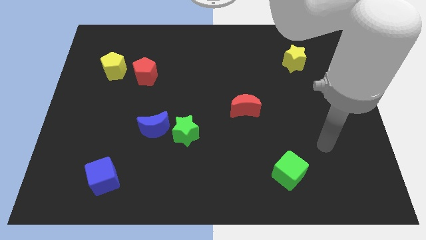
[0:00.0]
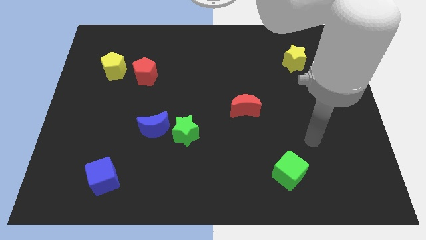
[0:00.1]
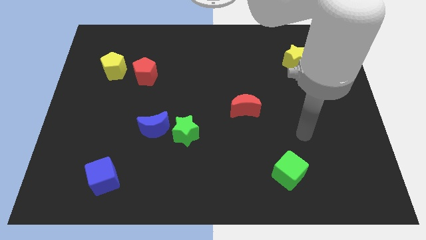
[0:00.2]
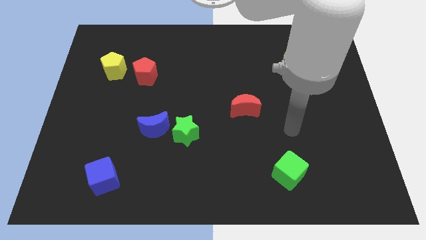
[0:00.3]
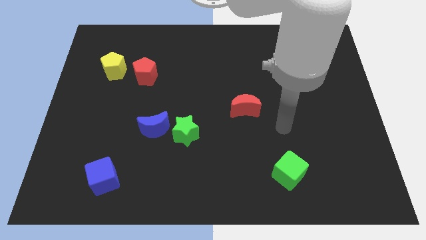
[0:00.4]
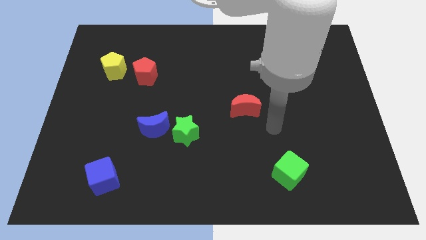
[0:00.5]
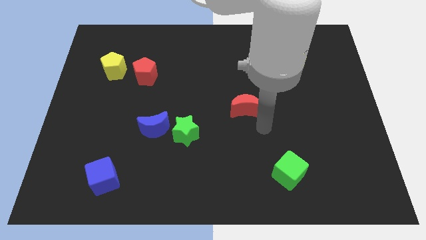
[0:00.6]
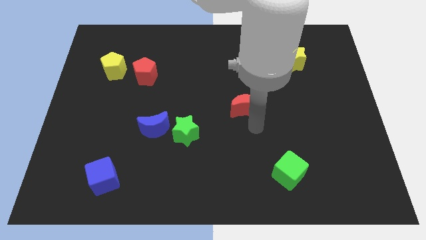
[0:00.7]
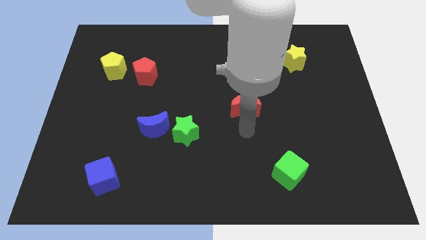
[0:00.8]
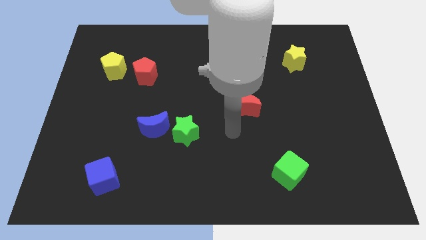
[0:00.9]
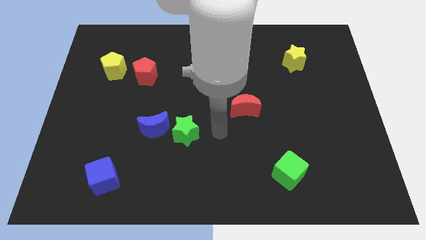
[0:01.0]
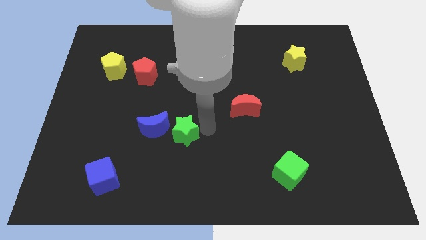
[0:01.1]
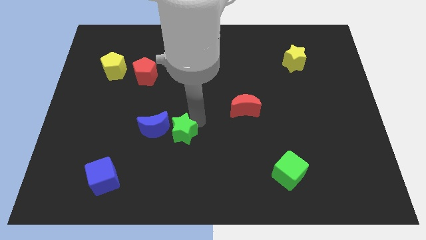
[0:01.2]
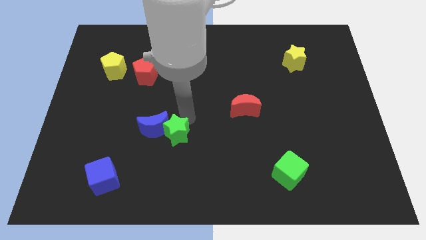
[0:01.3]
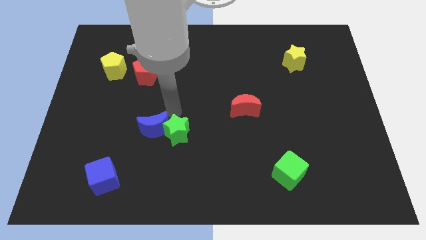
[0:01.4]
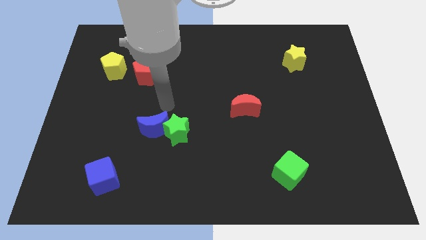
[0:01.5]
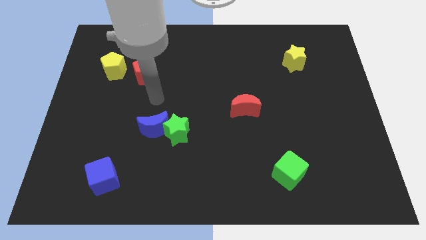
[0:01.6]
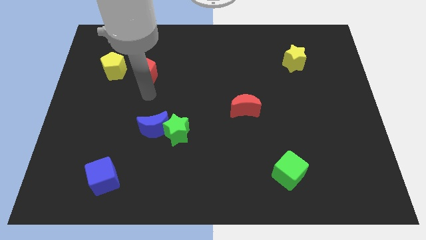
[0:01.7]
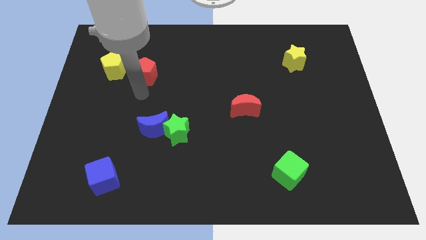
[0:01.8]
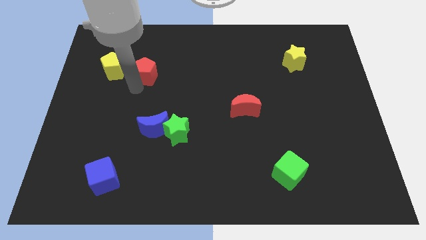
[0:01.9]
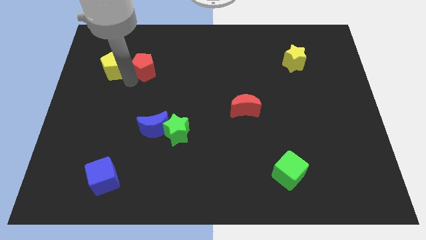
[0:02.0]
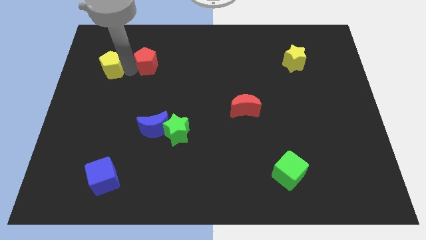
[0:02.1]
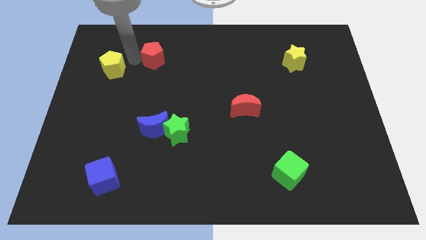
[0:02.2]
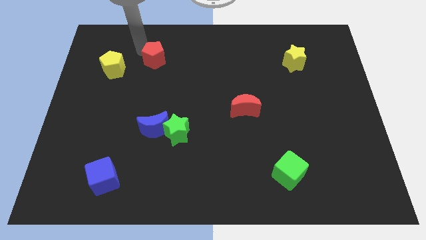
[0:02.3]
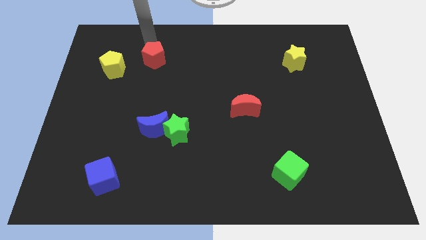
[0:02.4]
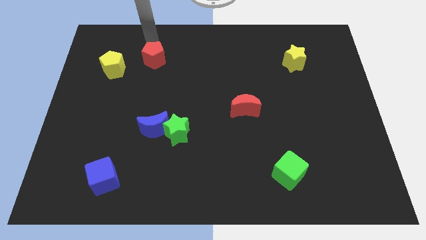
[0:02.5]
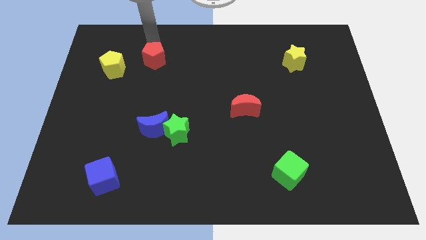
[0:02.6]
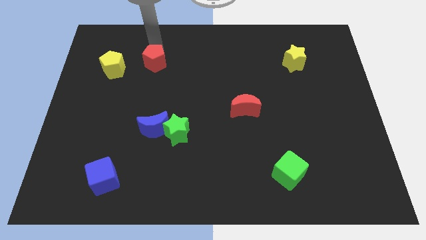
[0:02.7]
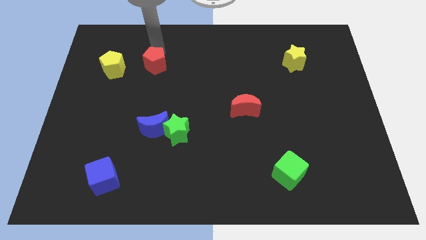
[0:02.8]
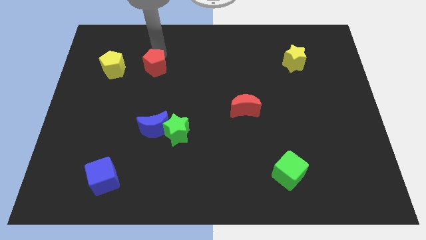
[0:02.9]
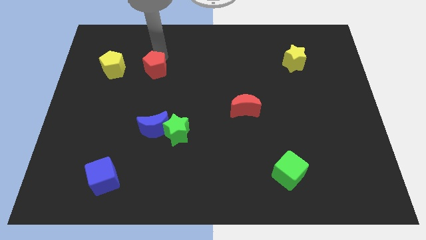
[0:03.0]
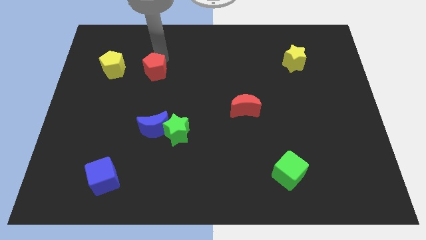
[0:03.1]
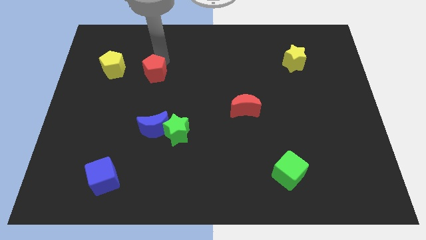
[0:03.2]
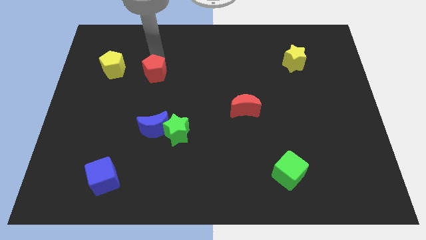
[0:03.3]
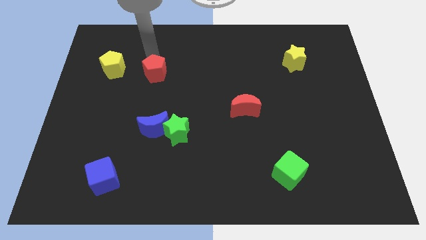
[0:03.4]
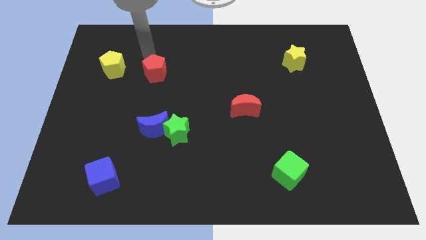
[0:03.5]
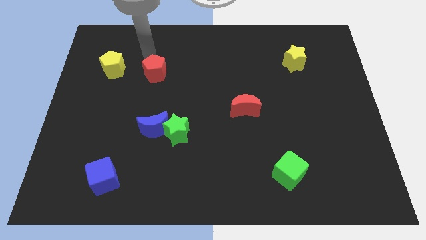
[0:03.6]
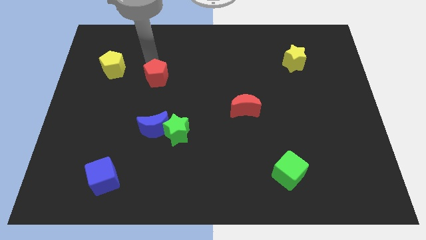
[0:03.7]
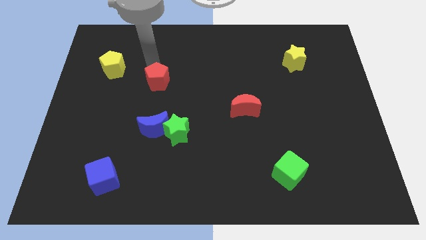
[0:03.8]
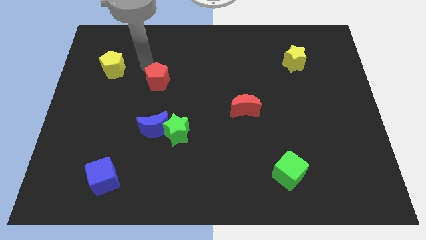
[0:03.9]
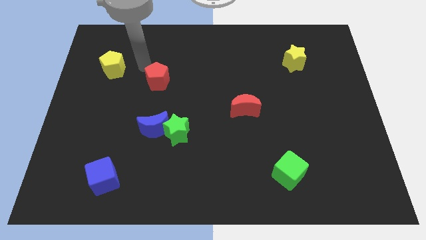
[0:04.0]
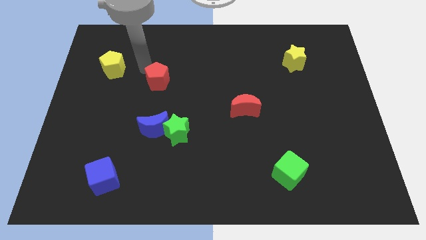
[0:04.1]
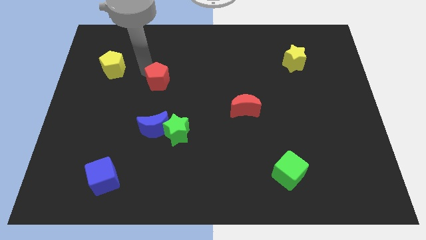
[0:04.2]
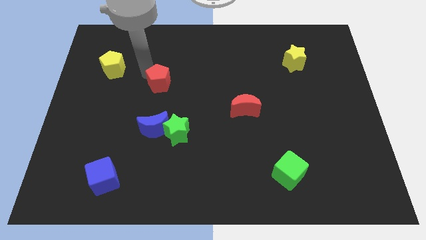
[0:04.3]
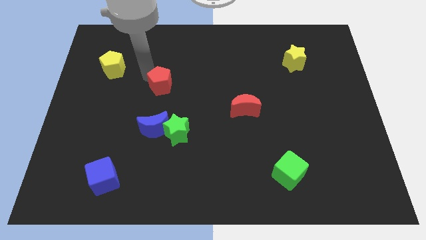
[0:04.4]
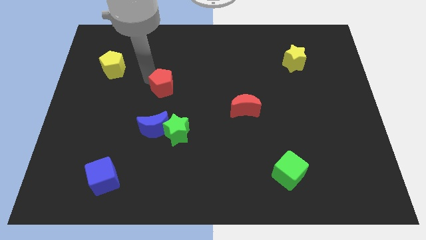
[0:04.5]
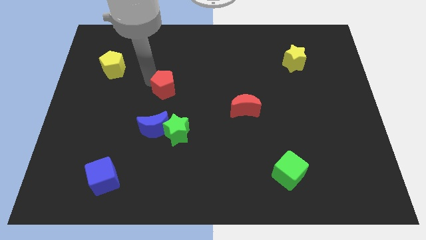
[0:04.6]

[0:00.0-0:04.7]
push the red pentagon diagonally down and right a little

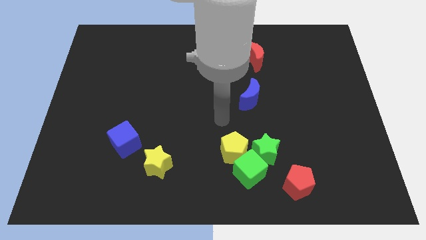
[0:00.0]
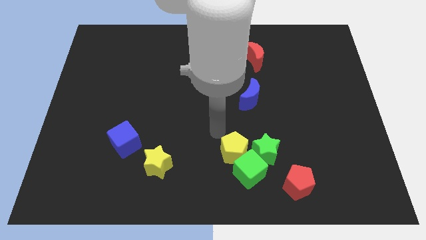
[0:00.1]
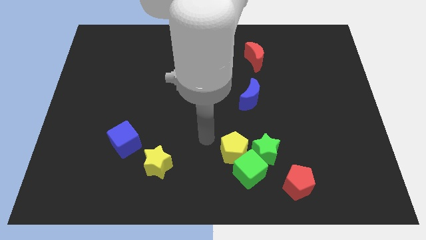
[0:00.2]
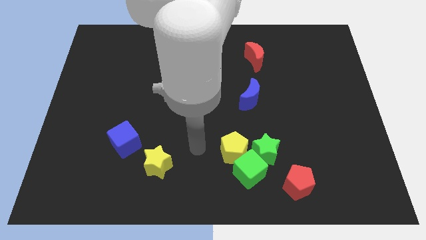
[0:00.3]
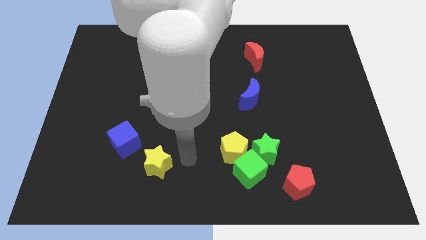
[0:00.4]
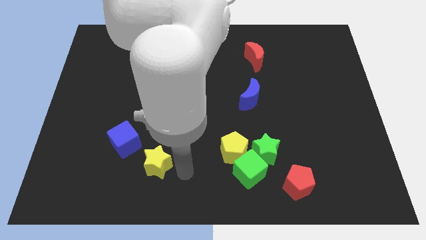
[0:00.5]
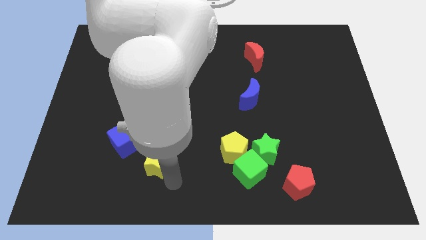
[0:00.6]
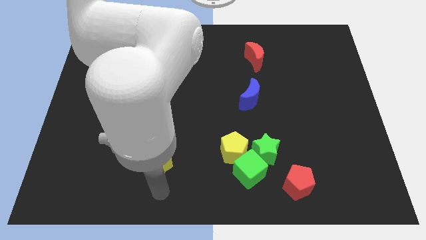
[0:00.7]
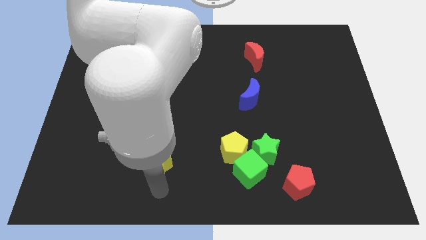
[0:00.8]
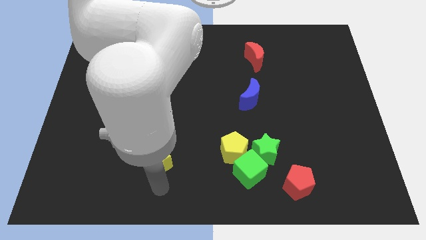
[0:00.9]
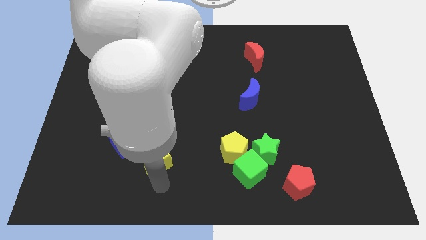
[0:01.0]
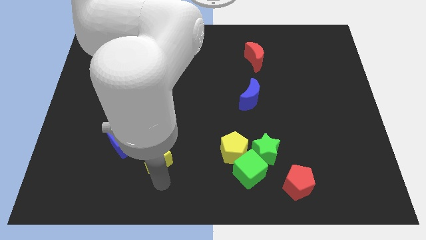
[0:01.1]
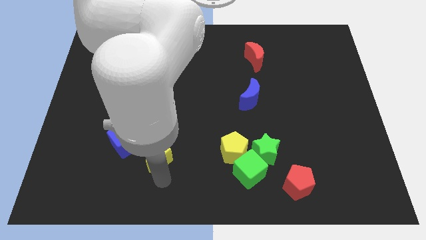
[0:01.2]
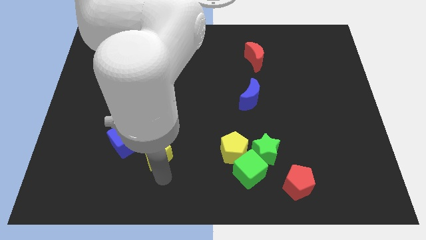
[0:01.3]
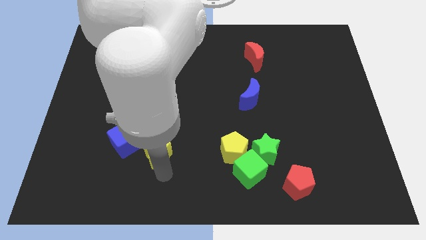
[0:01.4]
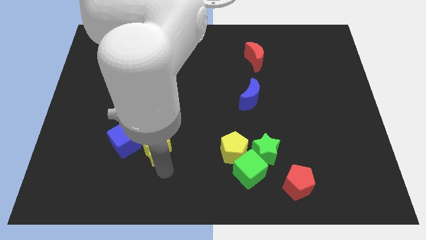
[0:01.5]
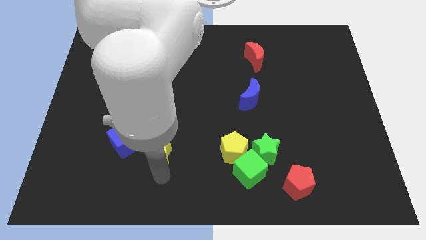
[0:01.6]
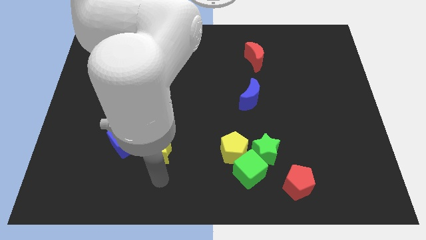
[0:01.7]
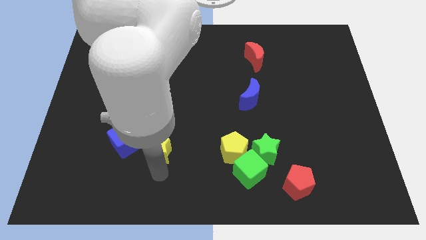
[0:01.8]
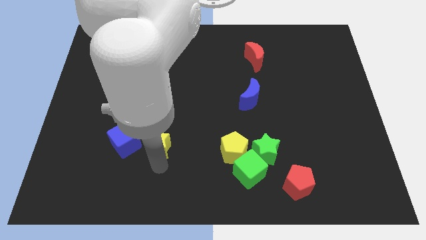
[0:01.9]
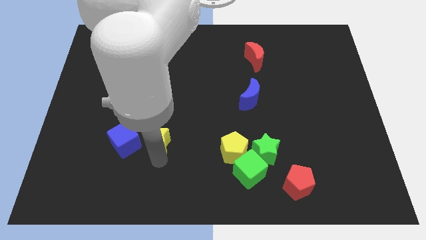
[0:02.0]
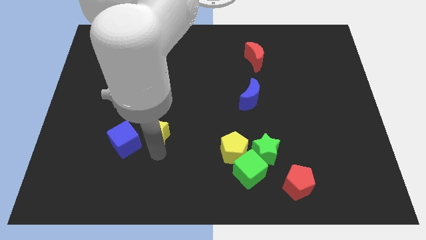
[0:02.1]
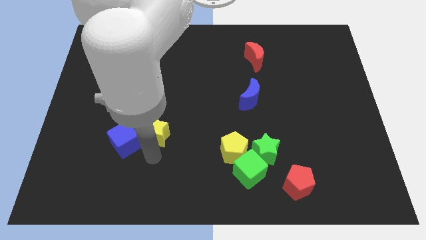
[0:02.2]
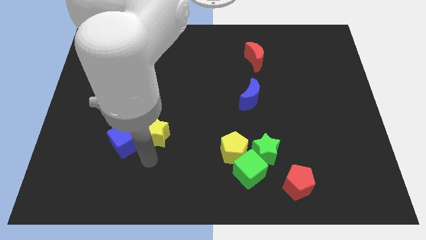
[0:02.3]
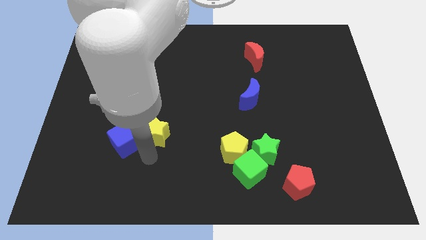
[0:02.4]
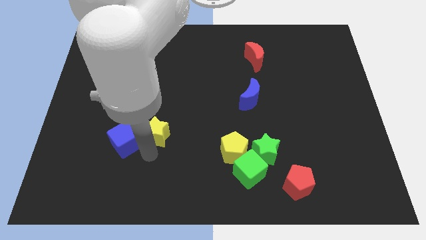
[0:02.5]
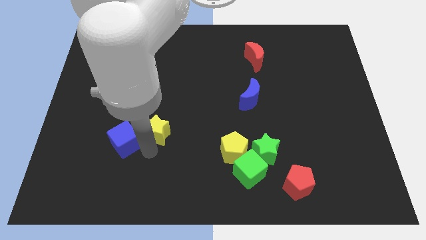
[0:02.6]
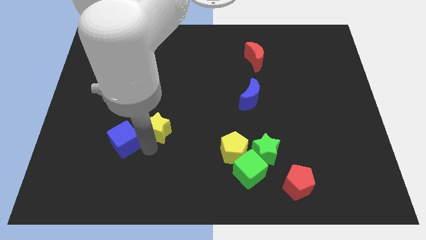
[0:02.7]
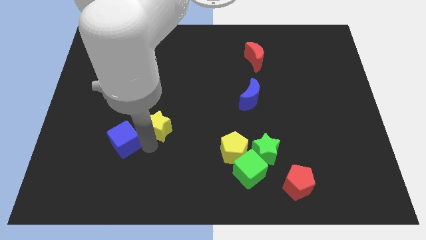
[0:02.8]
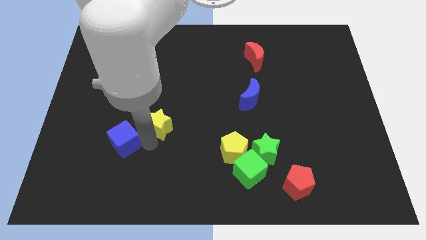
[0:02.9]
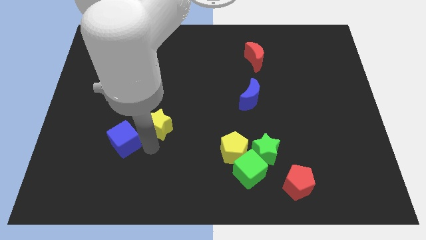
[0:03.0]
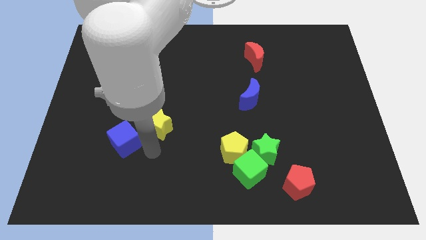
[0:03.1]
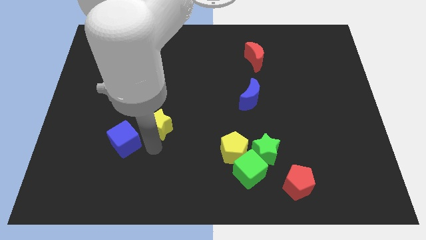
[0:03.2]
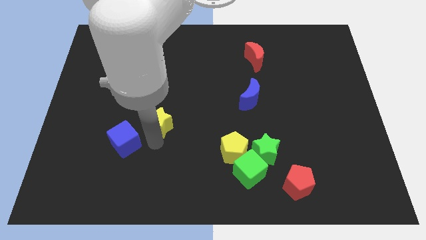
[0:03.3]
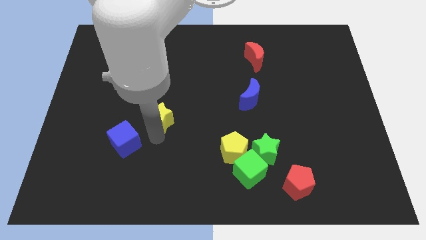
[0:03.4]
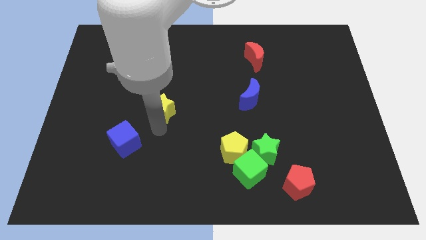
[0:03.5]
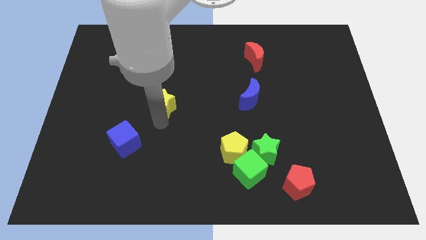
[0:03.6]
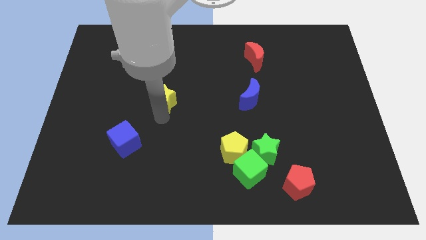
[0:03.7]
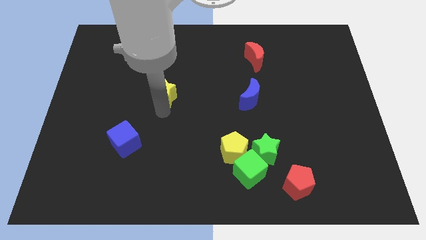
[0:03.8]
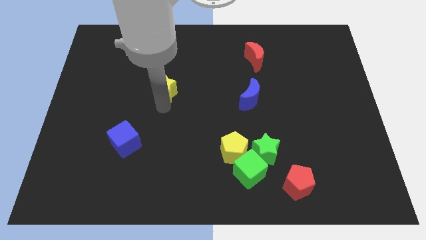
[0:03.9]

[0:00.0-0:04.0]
move the yellow star upwards
